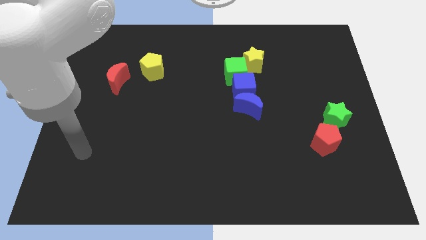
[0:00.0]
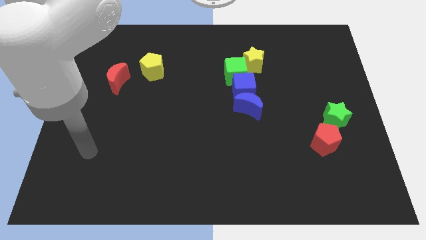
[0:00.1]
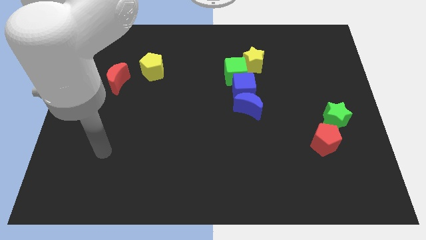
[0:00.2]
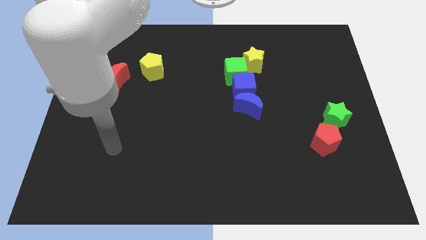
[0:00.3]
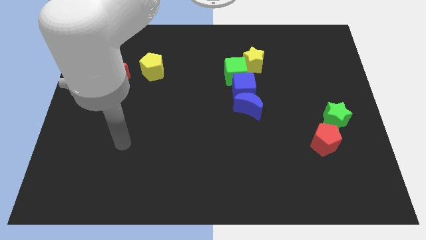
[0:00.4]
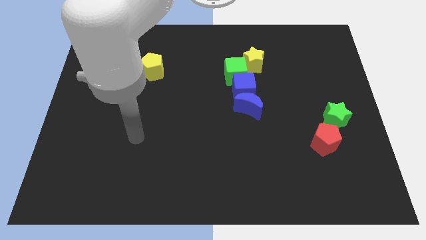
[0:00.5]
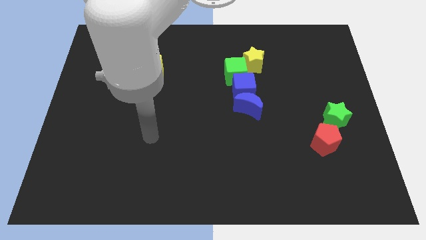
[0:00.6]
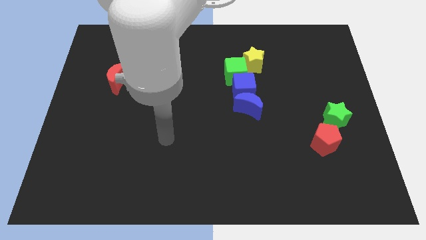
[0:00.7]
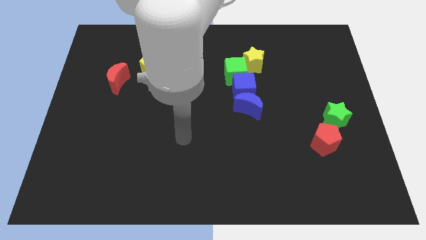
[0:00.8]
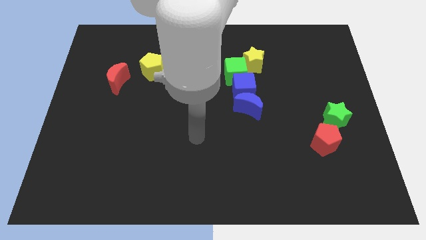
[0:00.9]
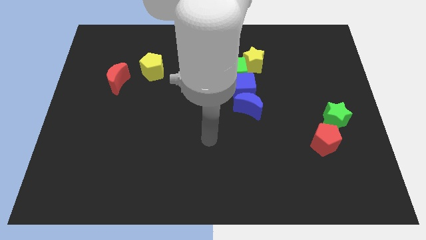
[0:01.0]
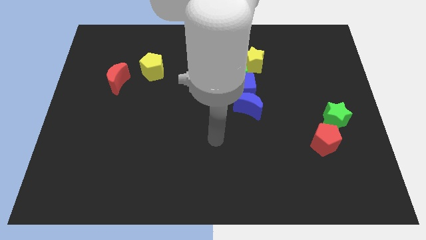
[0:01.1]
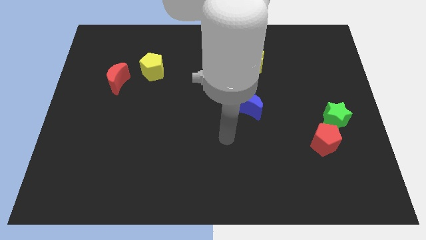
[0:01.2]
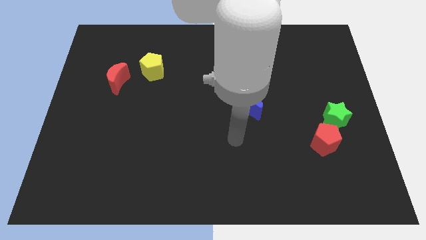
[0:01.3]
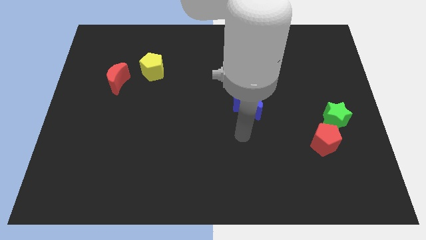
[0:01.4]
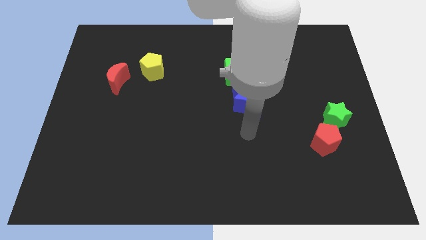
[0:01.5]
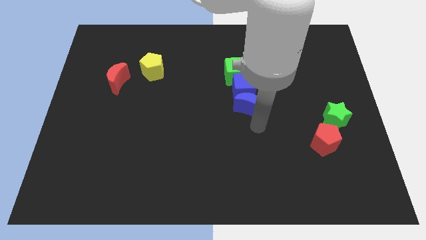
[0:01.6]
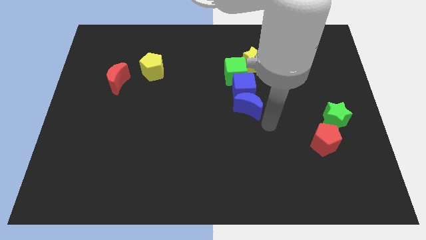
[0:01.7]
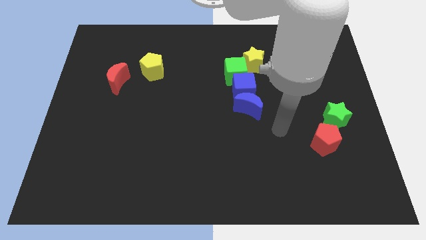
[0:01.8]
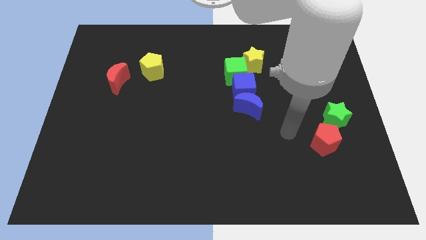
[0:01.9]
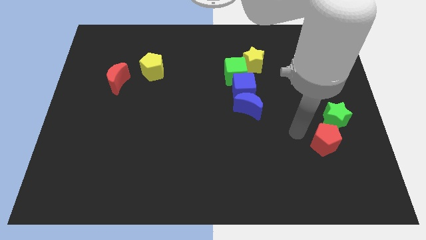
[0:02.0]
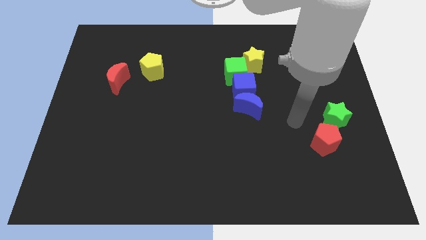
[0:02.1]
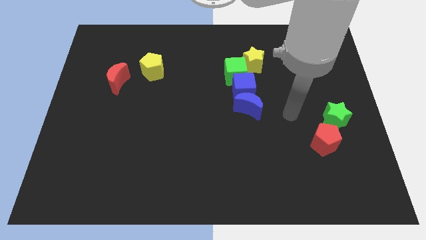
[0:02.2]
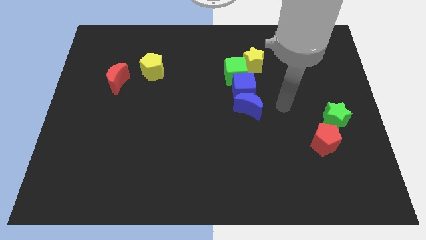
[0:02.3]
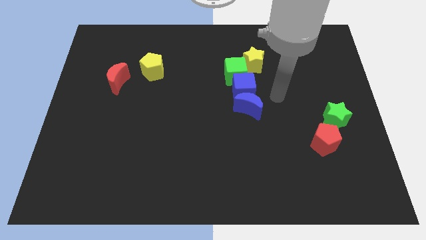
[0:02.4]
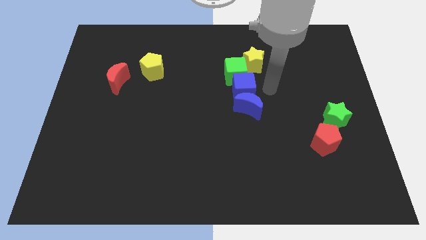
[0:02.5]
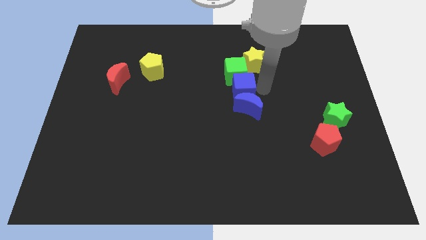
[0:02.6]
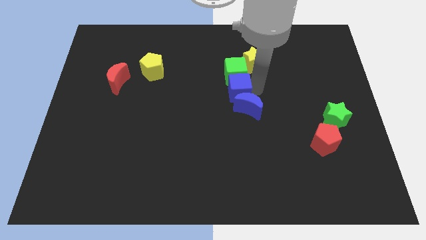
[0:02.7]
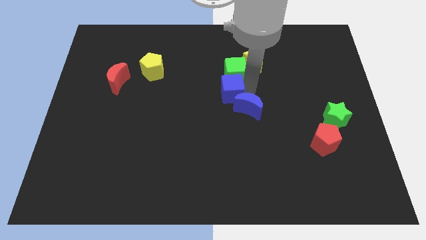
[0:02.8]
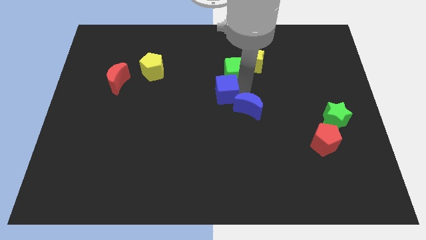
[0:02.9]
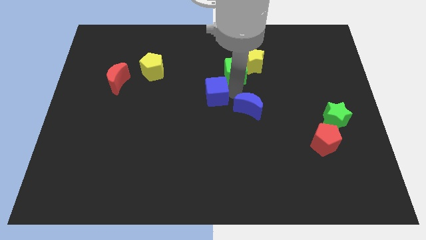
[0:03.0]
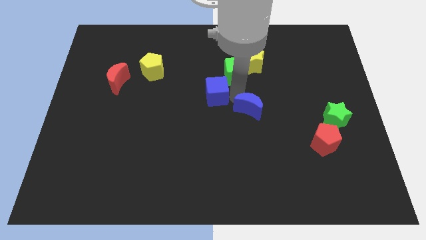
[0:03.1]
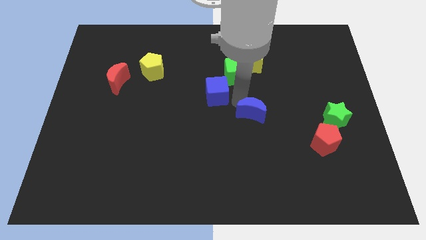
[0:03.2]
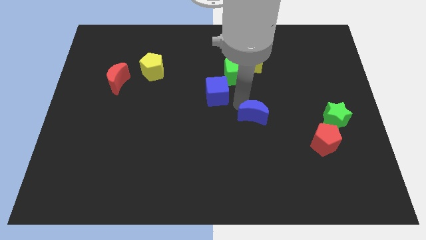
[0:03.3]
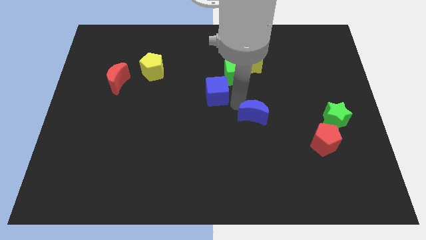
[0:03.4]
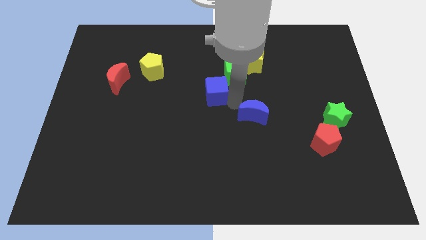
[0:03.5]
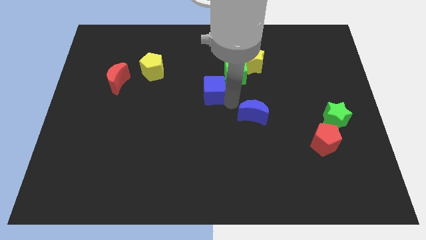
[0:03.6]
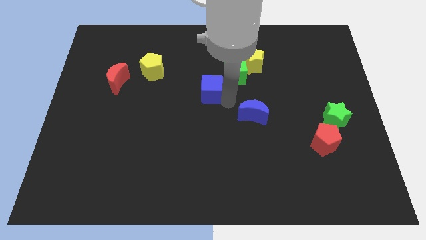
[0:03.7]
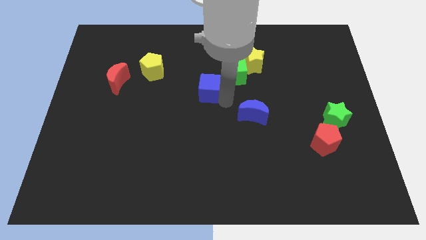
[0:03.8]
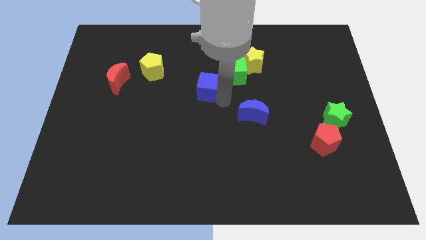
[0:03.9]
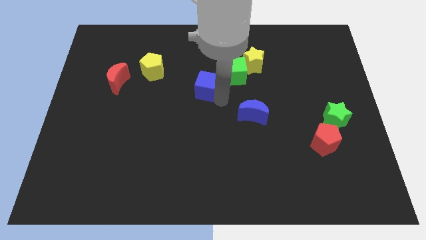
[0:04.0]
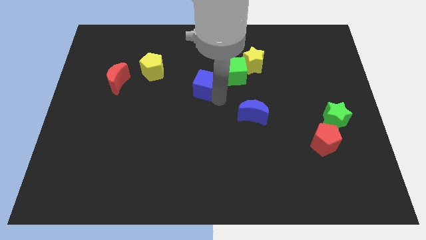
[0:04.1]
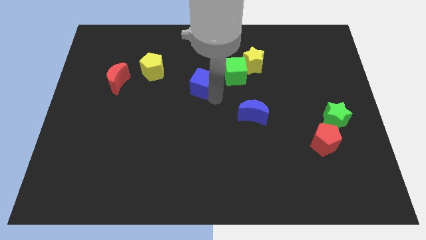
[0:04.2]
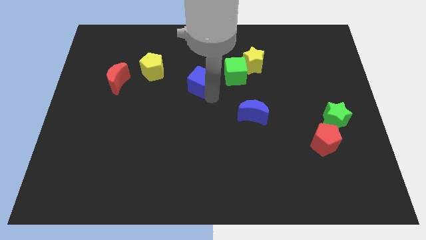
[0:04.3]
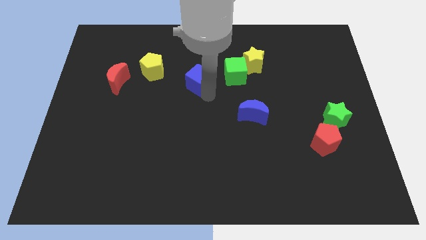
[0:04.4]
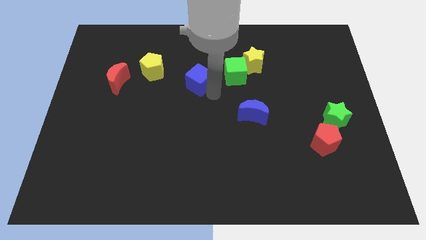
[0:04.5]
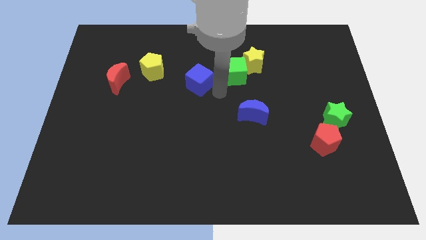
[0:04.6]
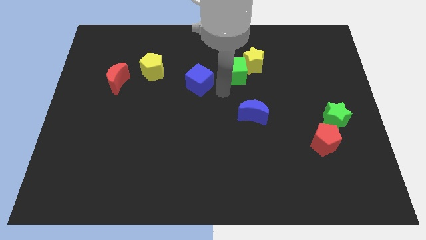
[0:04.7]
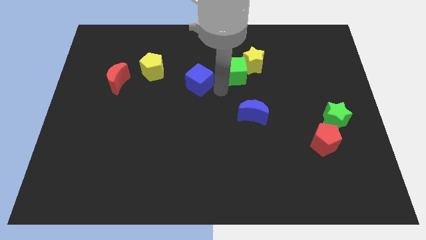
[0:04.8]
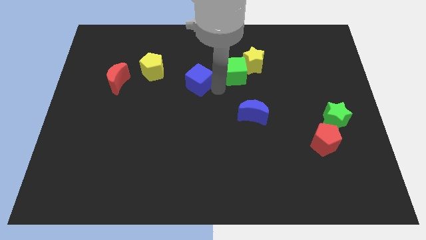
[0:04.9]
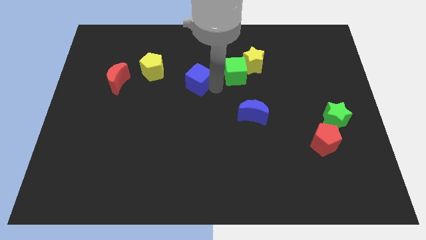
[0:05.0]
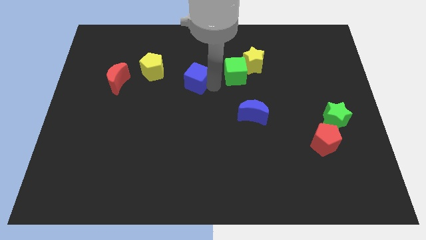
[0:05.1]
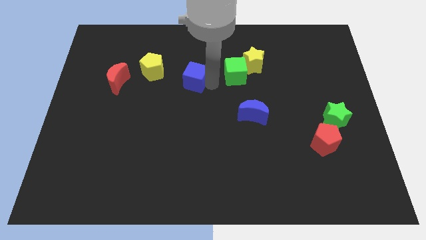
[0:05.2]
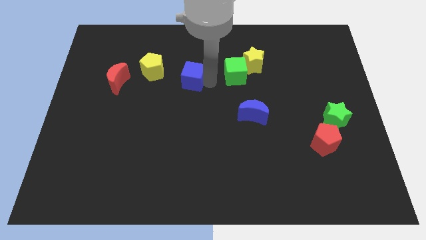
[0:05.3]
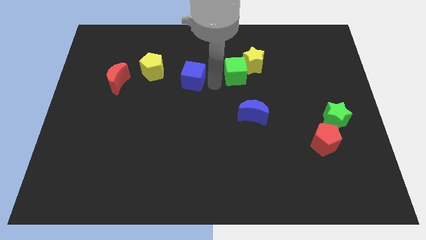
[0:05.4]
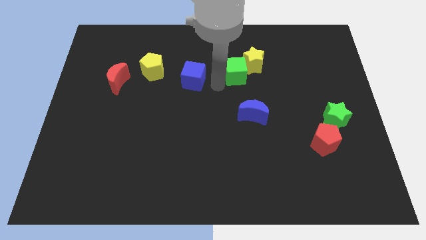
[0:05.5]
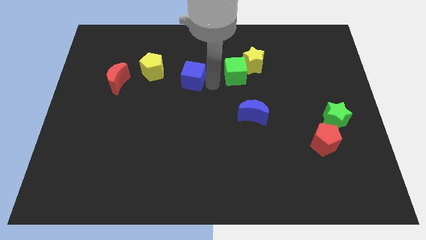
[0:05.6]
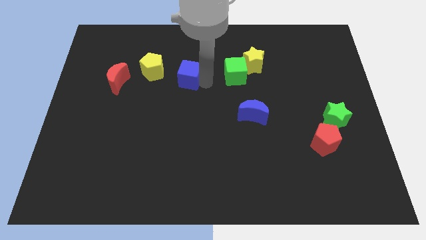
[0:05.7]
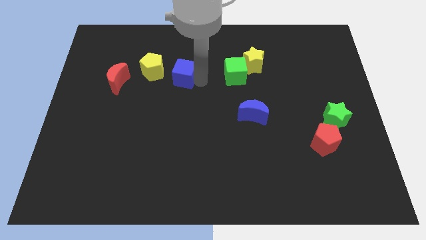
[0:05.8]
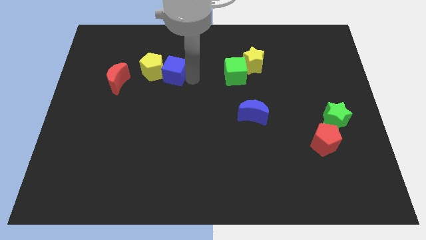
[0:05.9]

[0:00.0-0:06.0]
put the blue cube next to the yellow pentagon

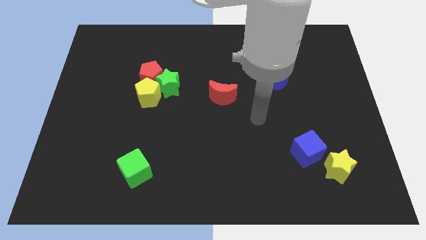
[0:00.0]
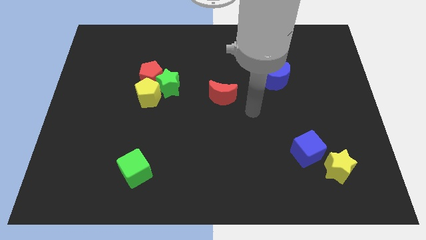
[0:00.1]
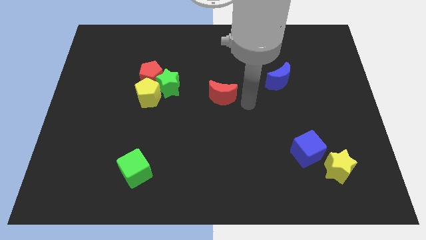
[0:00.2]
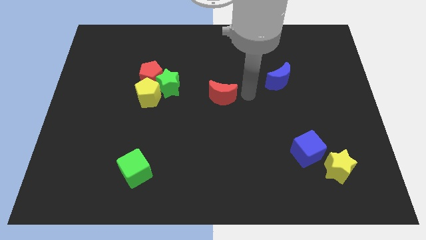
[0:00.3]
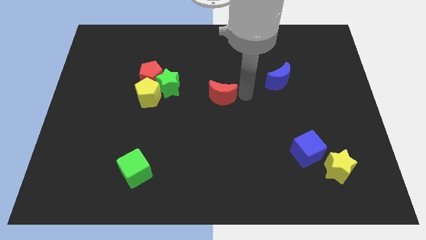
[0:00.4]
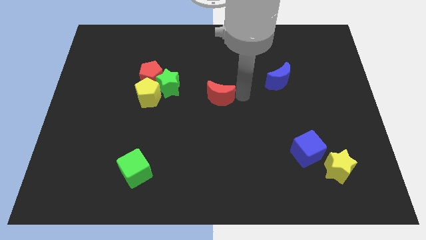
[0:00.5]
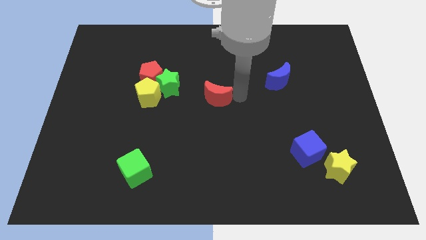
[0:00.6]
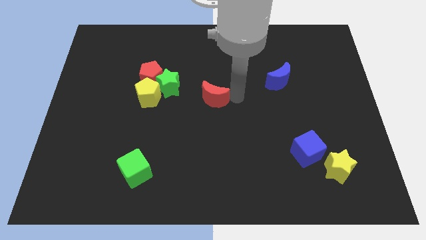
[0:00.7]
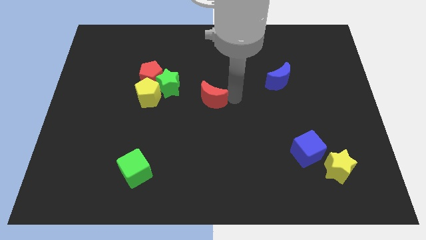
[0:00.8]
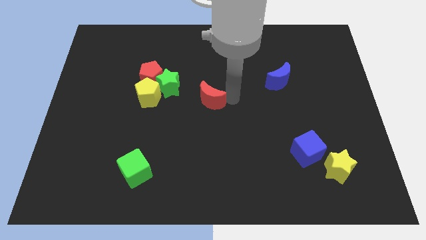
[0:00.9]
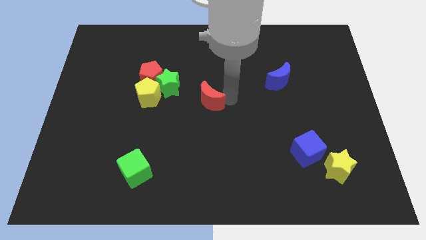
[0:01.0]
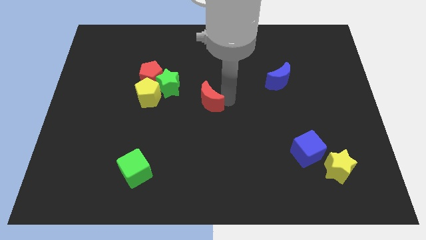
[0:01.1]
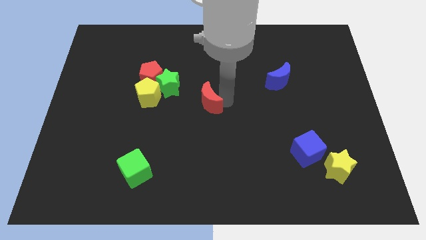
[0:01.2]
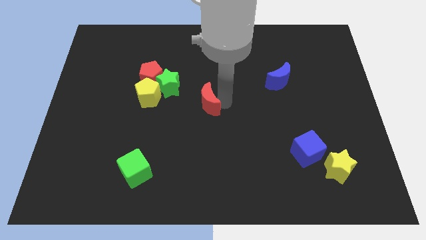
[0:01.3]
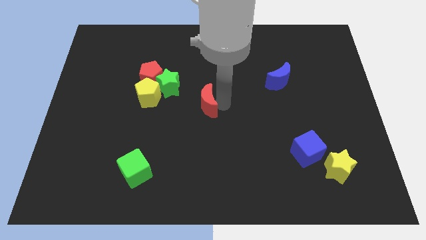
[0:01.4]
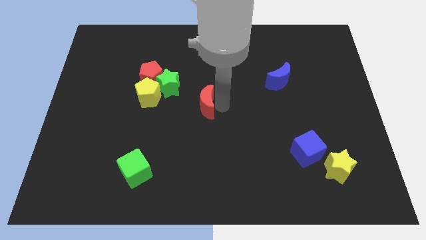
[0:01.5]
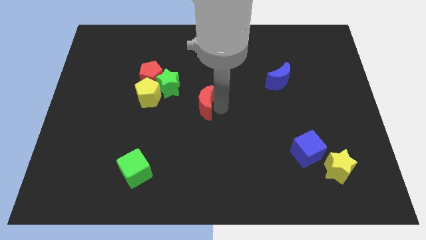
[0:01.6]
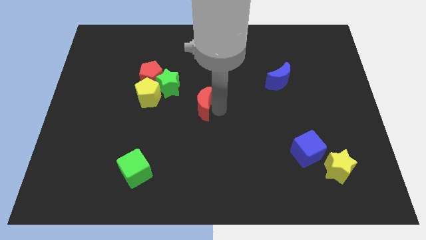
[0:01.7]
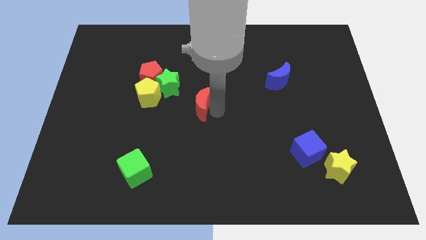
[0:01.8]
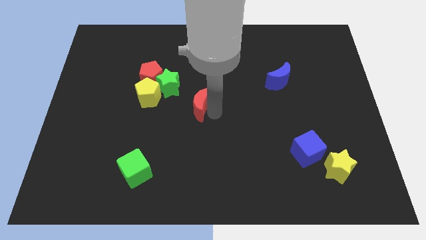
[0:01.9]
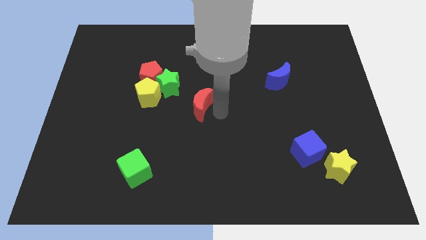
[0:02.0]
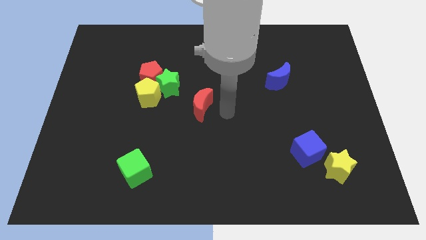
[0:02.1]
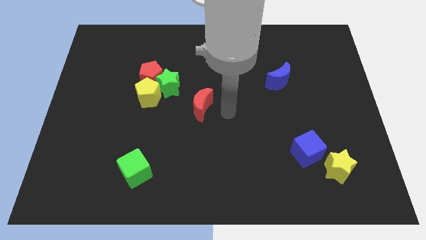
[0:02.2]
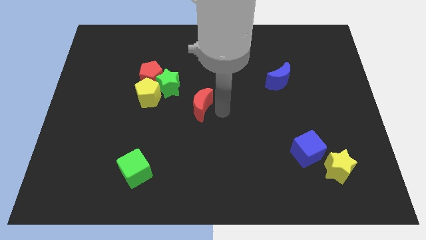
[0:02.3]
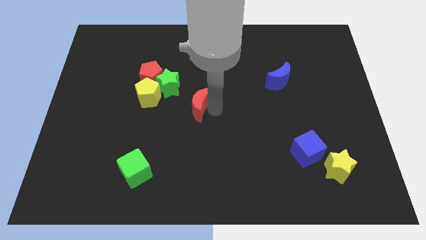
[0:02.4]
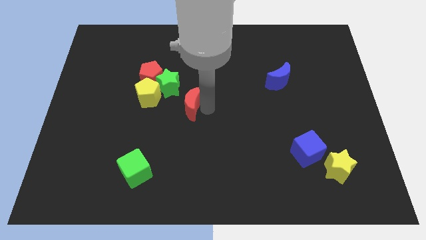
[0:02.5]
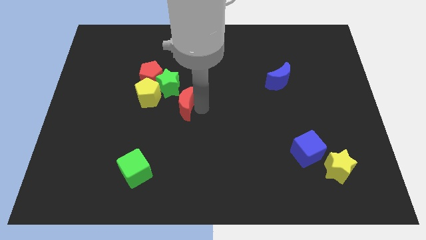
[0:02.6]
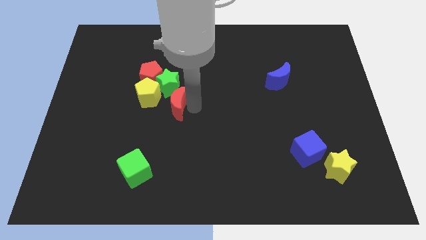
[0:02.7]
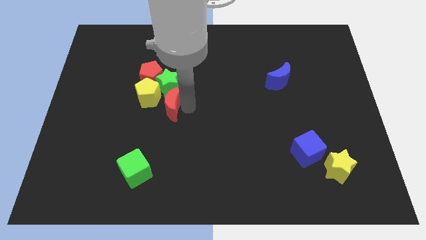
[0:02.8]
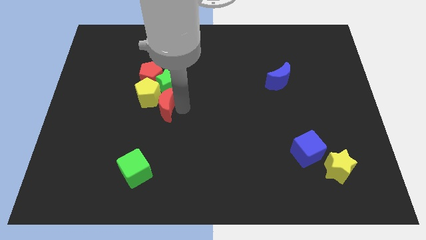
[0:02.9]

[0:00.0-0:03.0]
push the red moon towards the yellow pentagon
